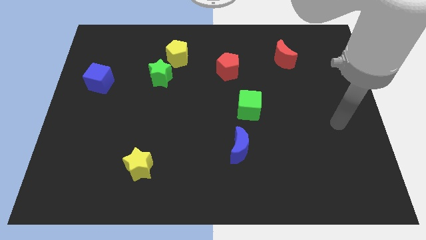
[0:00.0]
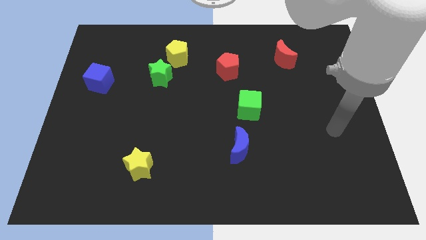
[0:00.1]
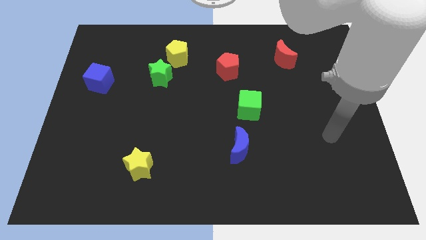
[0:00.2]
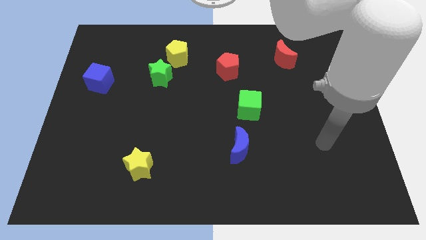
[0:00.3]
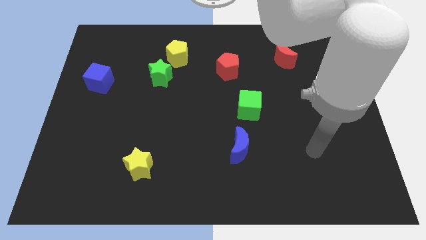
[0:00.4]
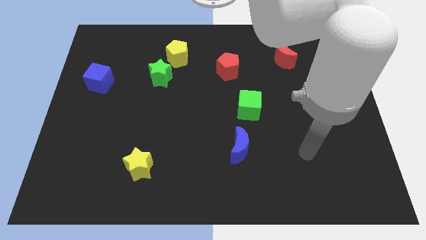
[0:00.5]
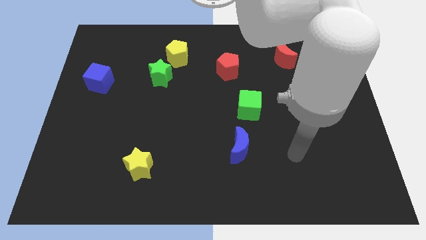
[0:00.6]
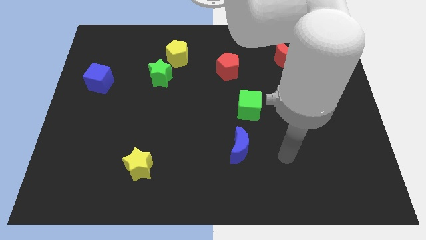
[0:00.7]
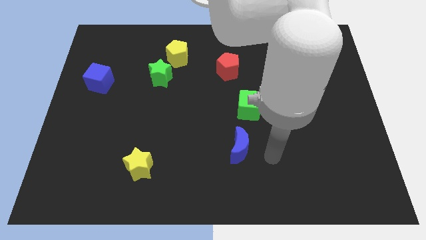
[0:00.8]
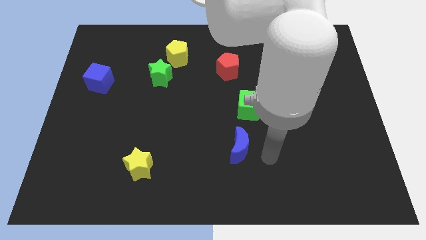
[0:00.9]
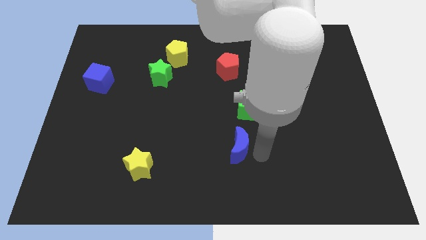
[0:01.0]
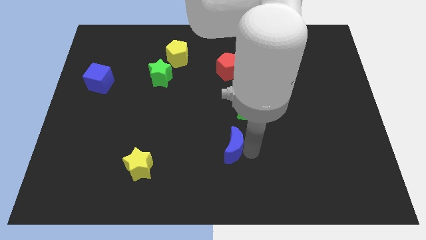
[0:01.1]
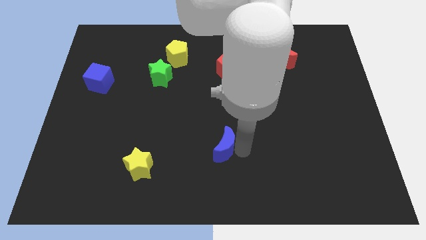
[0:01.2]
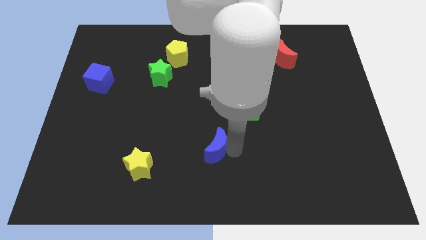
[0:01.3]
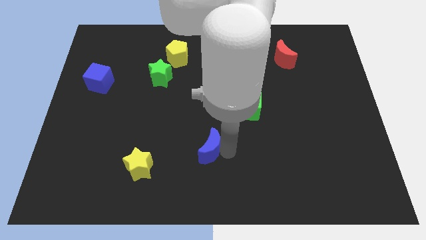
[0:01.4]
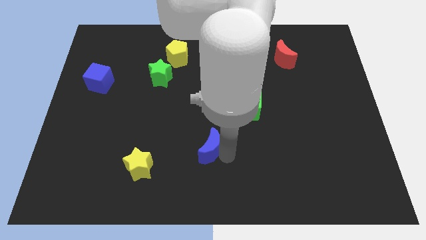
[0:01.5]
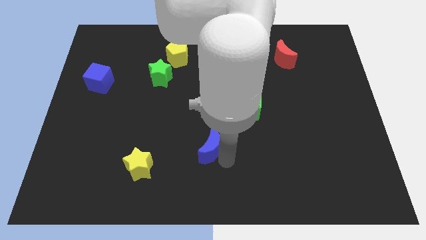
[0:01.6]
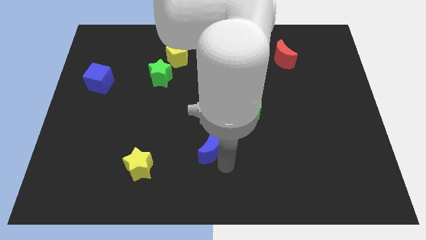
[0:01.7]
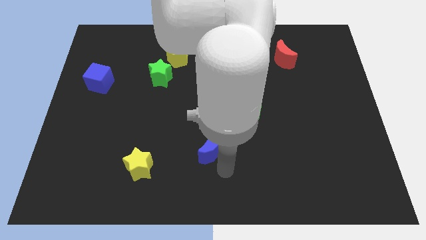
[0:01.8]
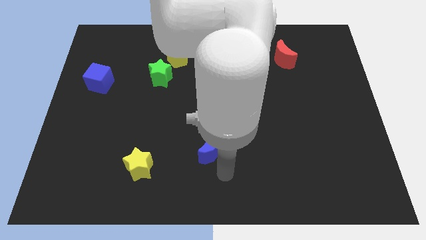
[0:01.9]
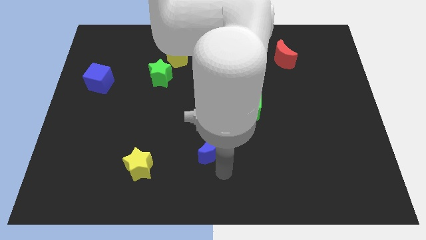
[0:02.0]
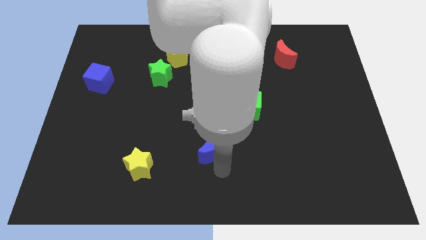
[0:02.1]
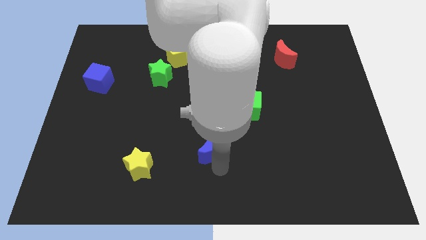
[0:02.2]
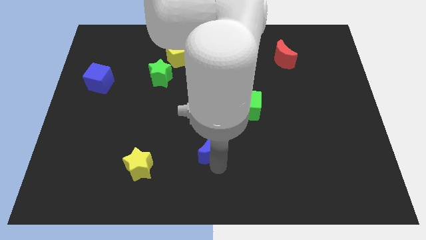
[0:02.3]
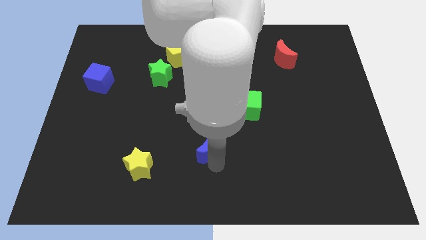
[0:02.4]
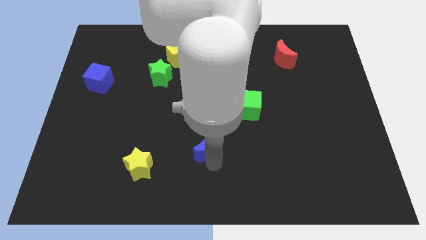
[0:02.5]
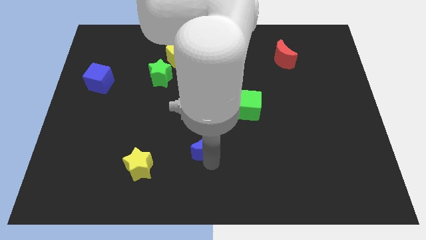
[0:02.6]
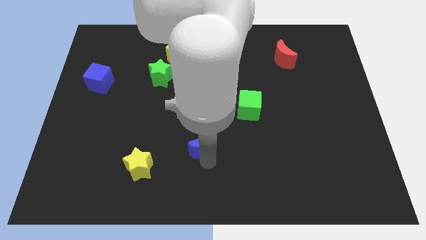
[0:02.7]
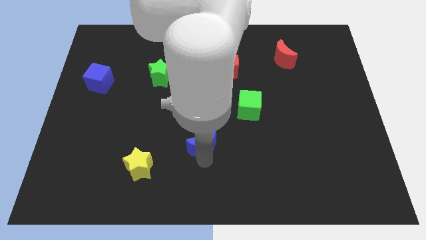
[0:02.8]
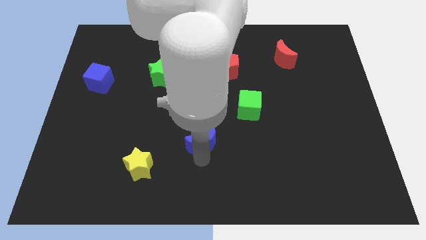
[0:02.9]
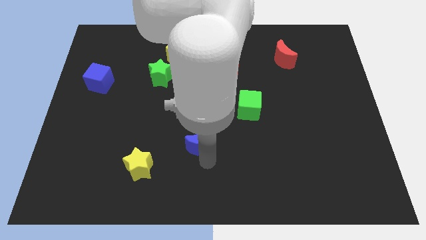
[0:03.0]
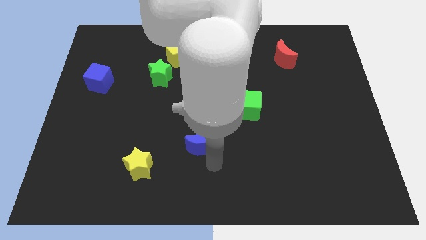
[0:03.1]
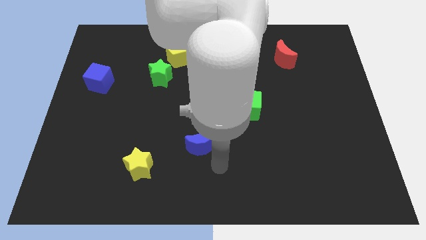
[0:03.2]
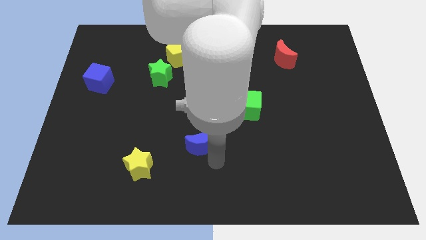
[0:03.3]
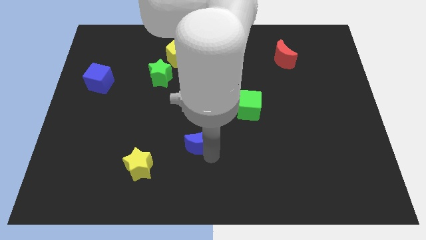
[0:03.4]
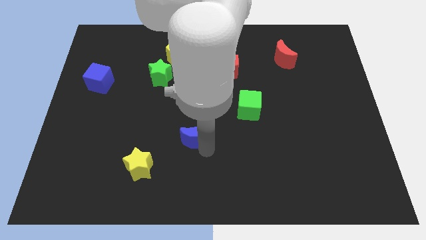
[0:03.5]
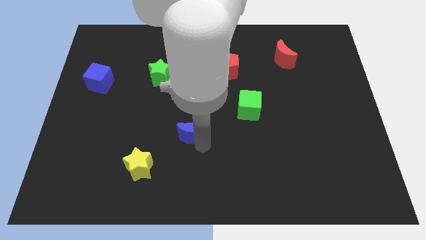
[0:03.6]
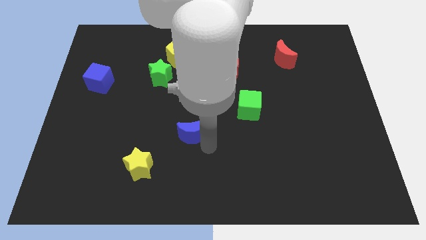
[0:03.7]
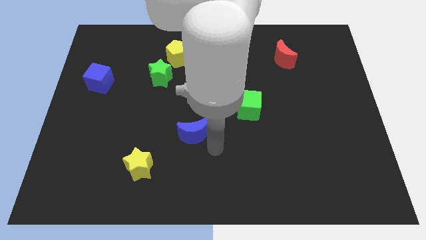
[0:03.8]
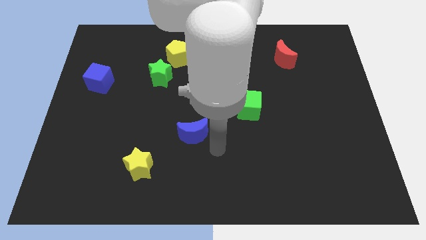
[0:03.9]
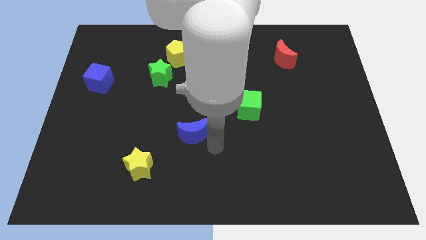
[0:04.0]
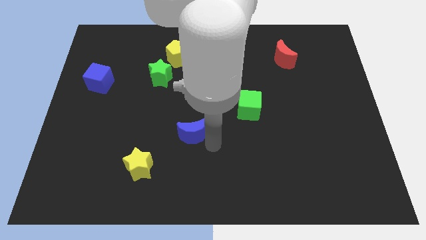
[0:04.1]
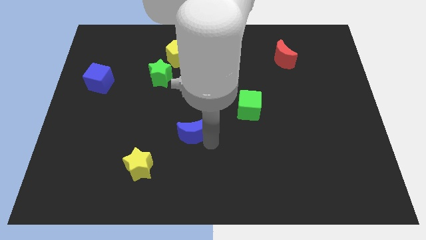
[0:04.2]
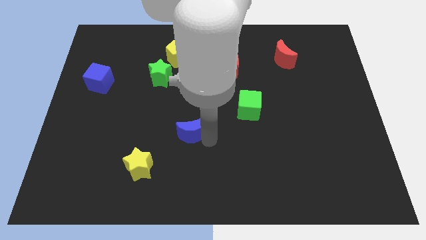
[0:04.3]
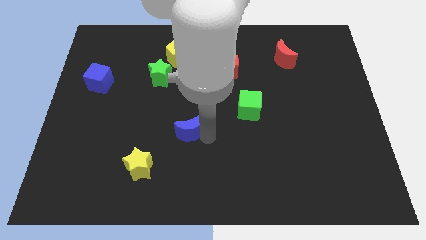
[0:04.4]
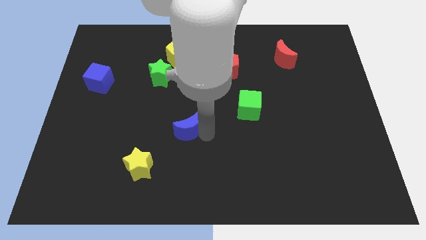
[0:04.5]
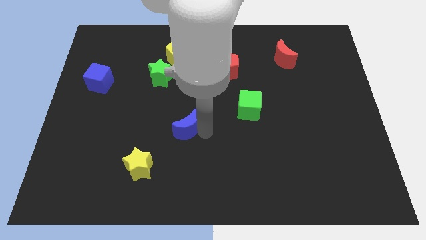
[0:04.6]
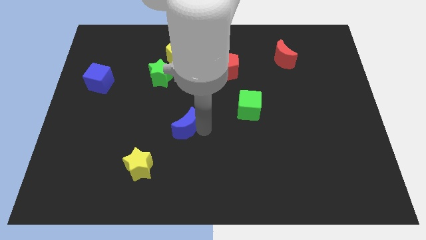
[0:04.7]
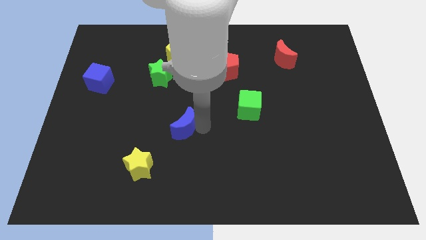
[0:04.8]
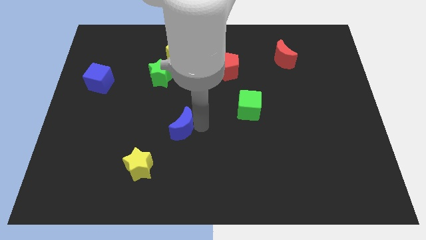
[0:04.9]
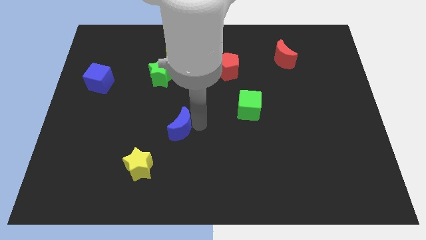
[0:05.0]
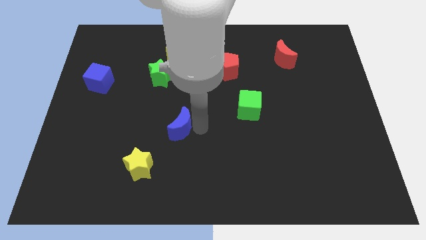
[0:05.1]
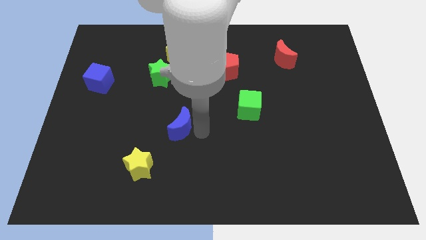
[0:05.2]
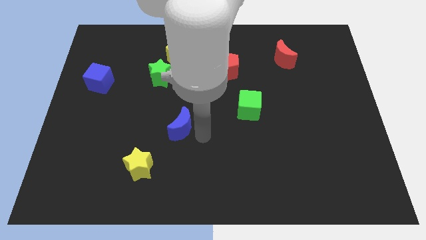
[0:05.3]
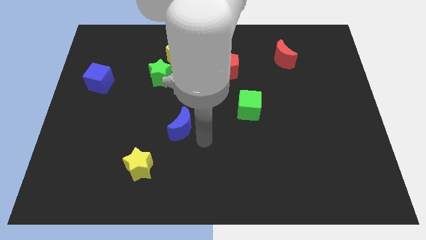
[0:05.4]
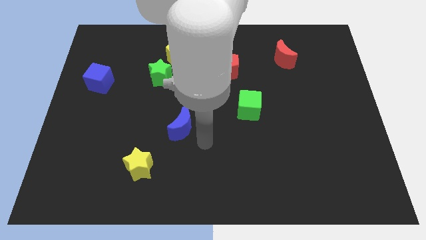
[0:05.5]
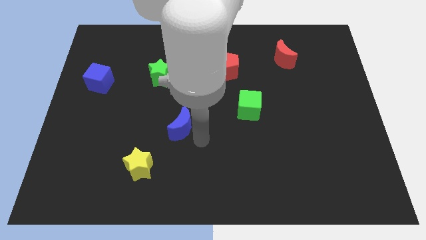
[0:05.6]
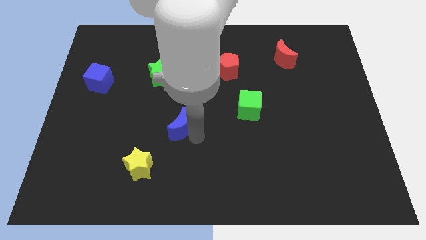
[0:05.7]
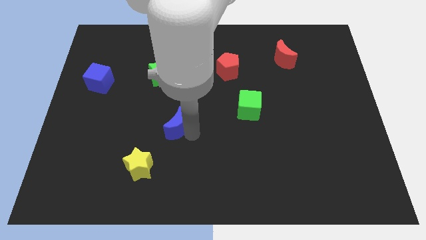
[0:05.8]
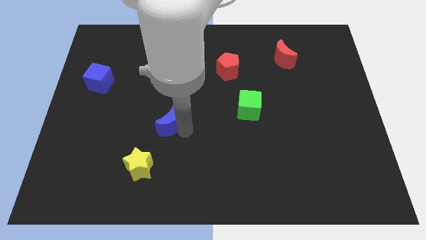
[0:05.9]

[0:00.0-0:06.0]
move the blue moon to the bottom of the green star

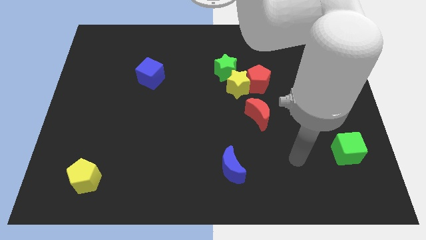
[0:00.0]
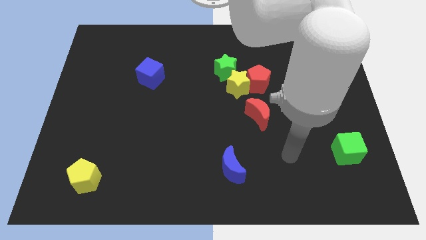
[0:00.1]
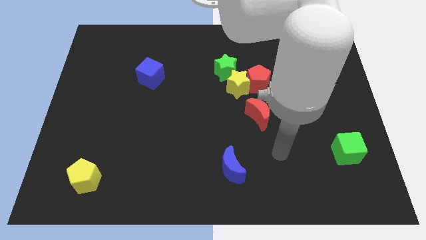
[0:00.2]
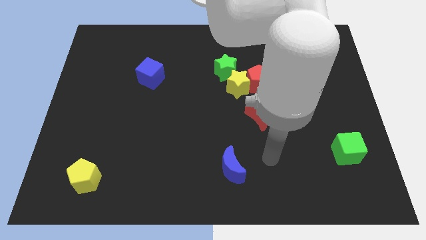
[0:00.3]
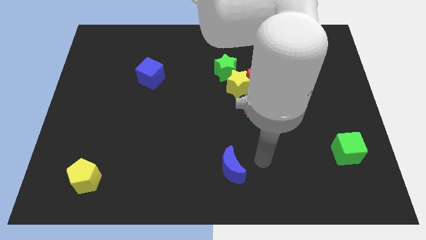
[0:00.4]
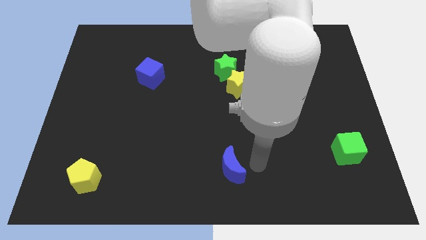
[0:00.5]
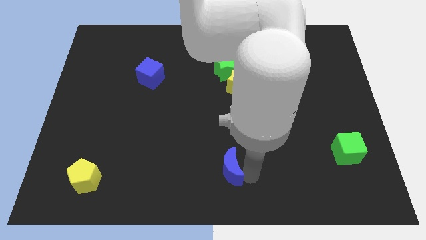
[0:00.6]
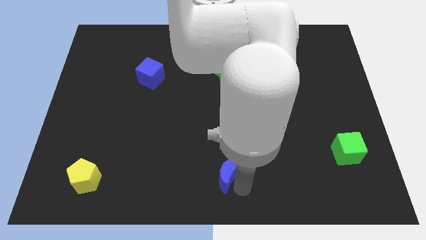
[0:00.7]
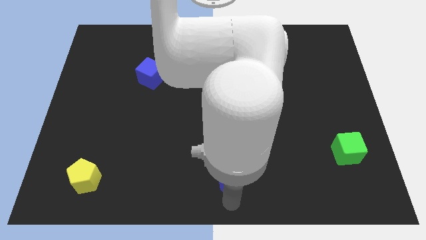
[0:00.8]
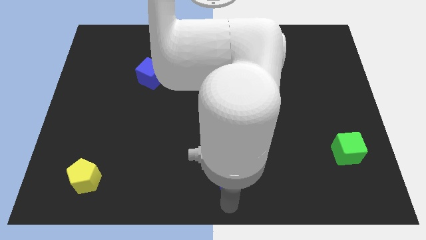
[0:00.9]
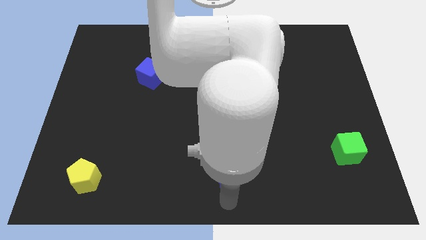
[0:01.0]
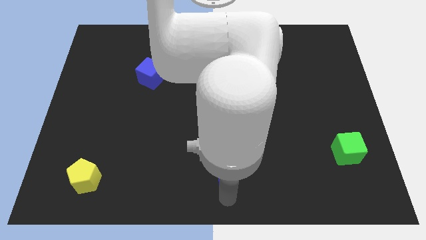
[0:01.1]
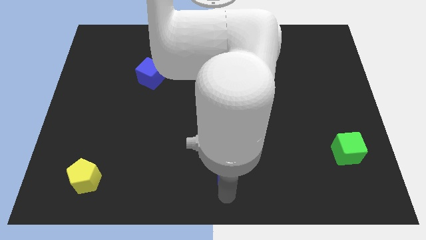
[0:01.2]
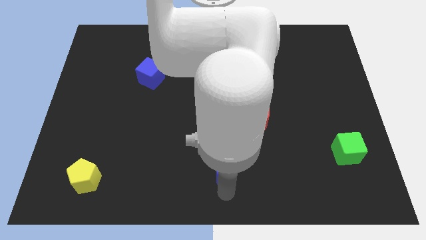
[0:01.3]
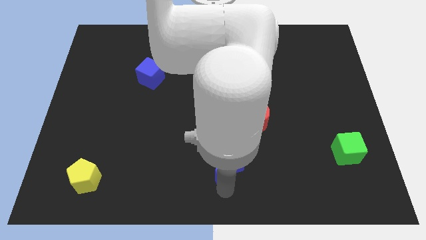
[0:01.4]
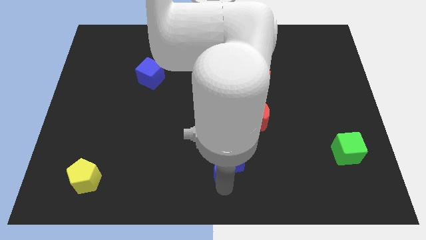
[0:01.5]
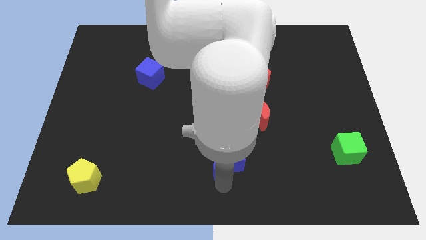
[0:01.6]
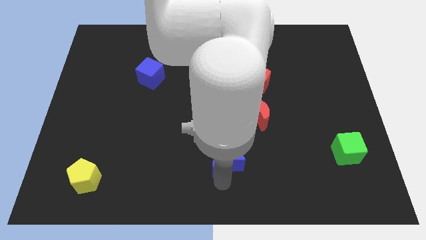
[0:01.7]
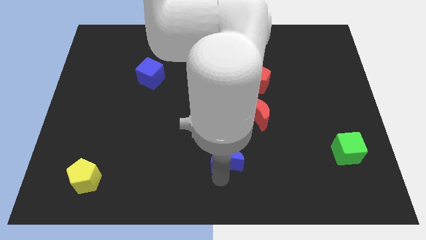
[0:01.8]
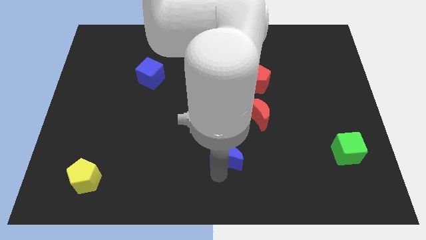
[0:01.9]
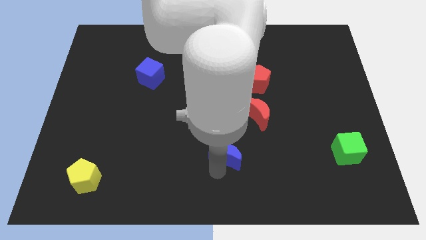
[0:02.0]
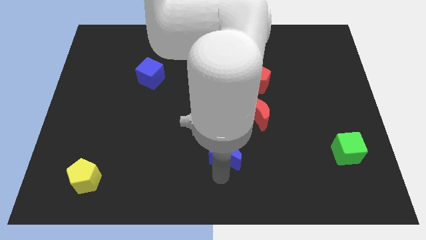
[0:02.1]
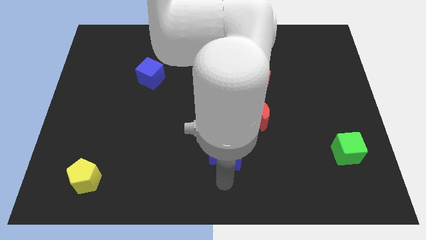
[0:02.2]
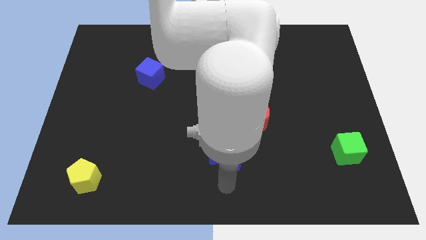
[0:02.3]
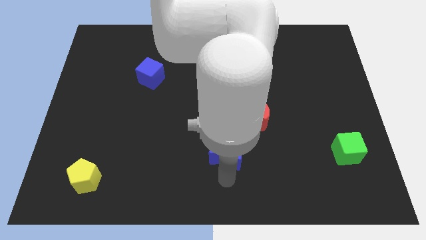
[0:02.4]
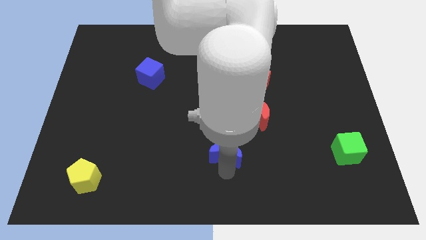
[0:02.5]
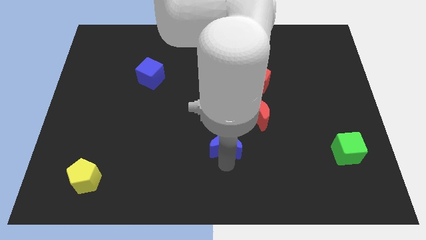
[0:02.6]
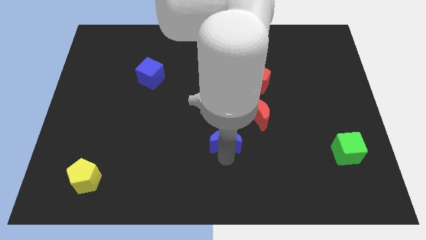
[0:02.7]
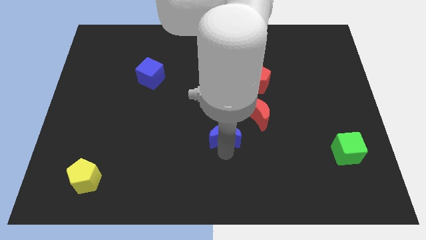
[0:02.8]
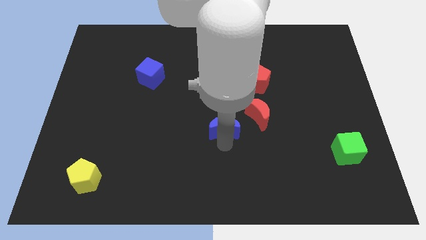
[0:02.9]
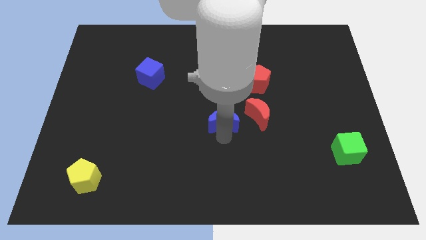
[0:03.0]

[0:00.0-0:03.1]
put the blue moon to the bottom of the green star
